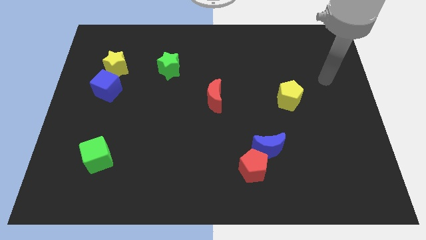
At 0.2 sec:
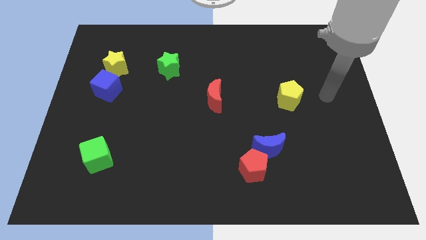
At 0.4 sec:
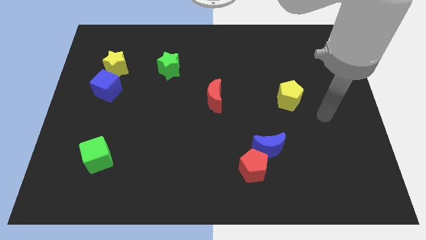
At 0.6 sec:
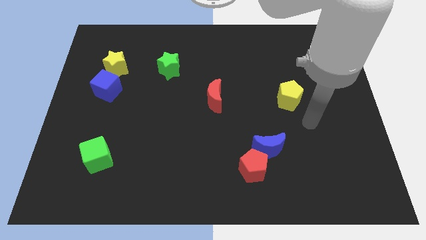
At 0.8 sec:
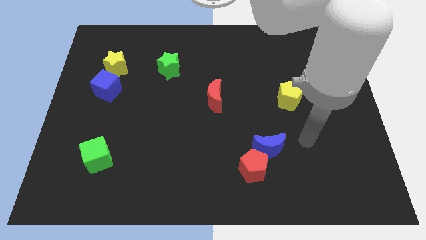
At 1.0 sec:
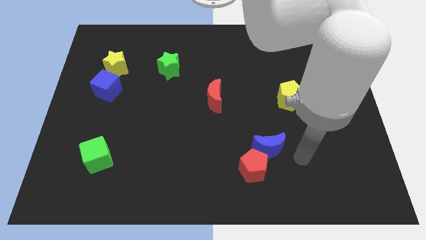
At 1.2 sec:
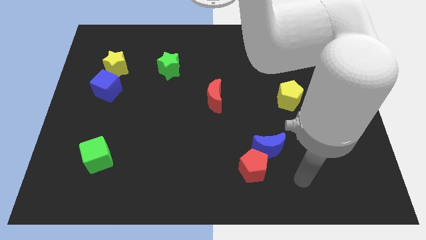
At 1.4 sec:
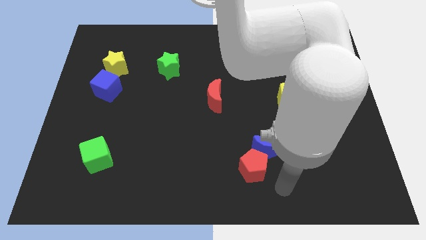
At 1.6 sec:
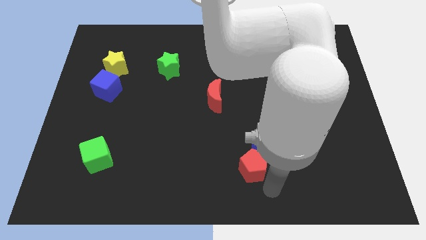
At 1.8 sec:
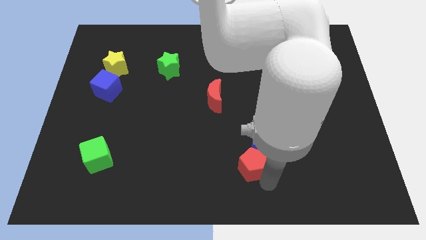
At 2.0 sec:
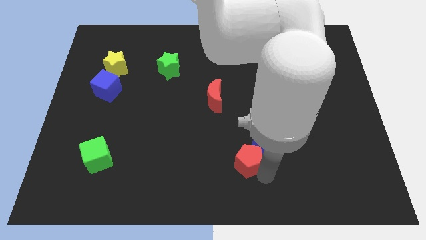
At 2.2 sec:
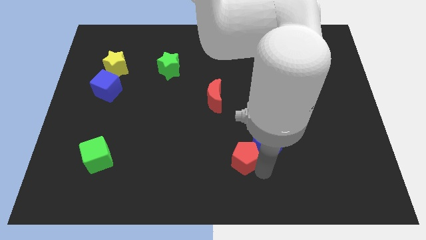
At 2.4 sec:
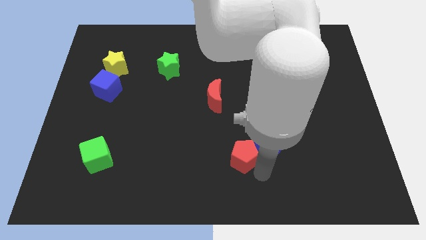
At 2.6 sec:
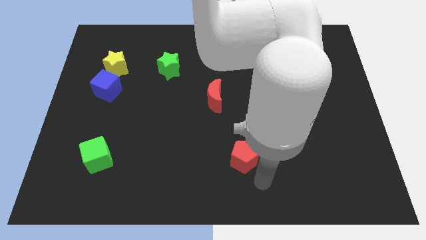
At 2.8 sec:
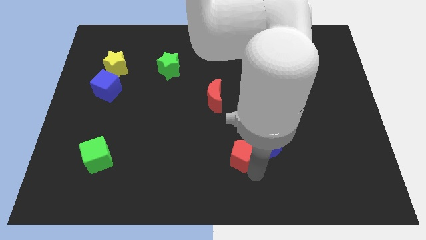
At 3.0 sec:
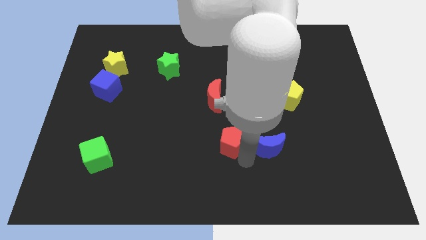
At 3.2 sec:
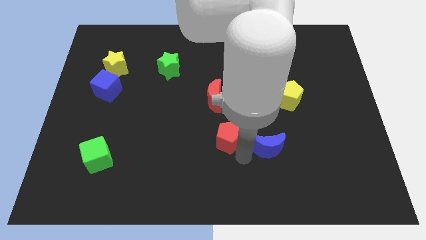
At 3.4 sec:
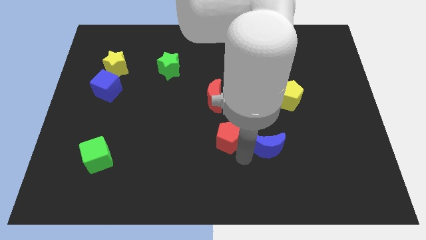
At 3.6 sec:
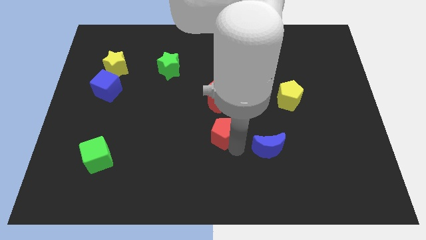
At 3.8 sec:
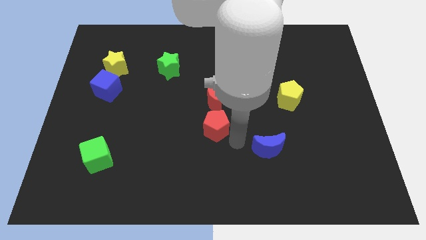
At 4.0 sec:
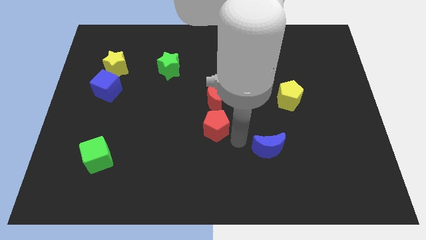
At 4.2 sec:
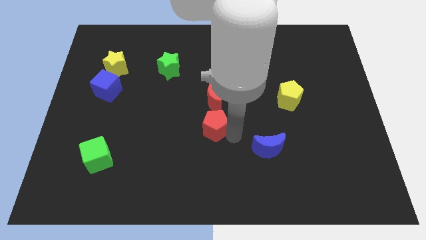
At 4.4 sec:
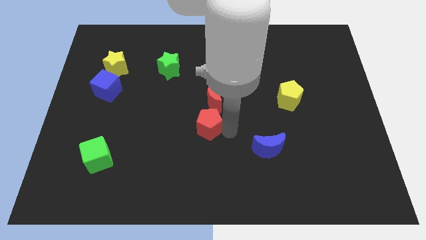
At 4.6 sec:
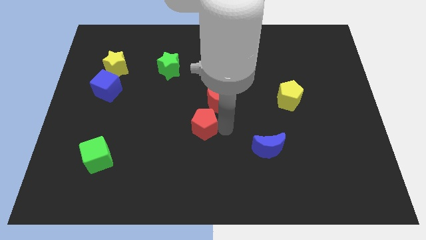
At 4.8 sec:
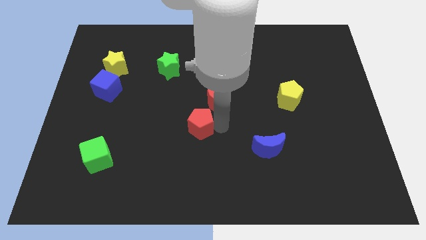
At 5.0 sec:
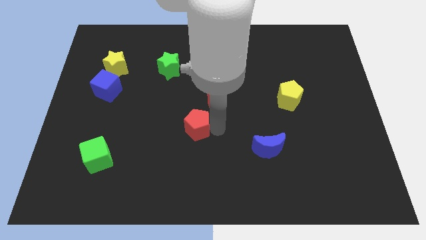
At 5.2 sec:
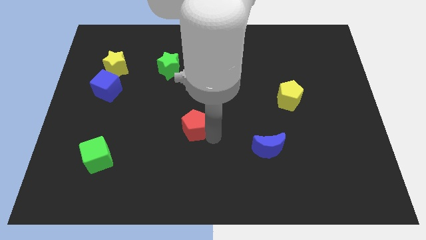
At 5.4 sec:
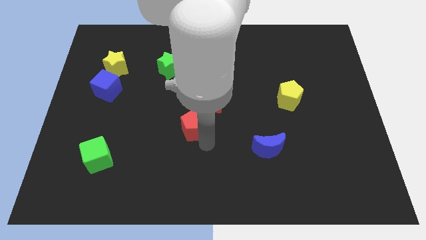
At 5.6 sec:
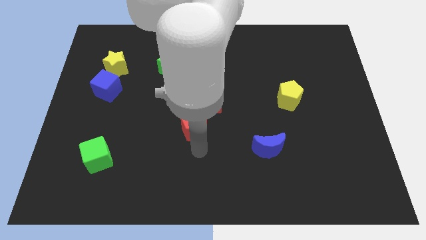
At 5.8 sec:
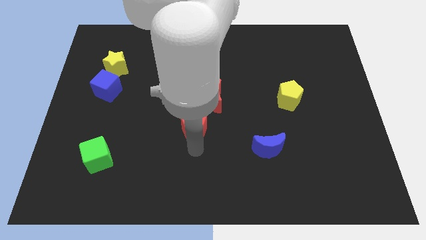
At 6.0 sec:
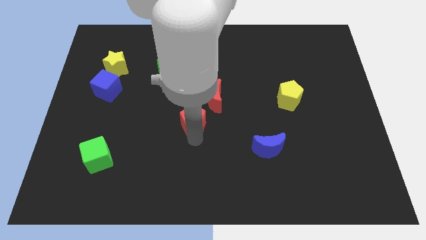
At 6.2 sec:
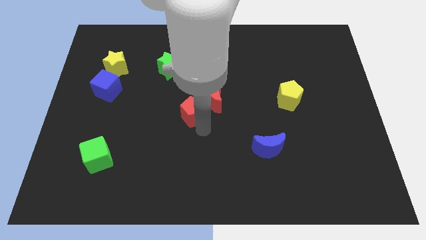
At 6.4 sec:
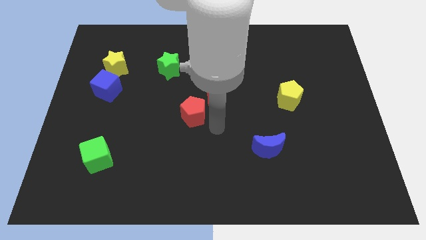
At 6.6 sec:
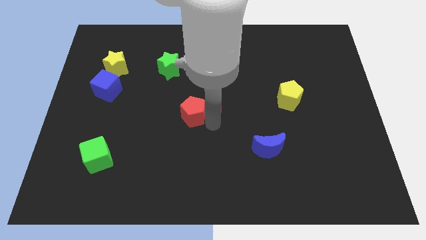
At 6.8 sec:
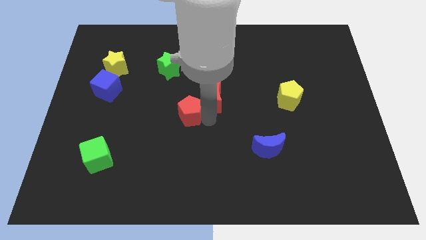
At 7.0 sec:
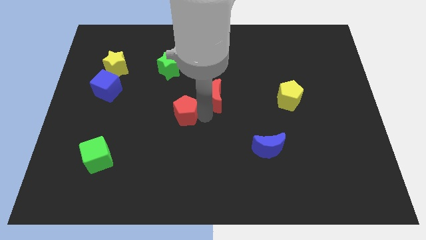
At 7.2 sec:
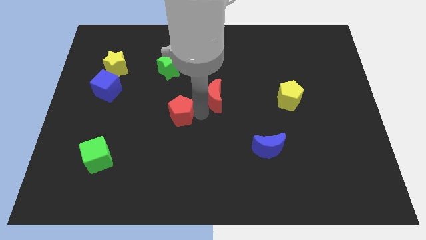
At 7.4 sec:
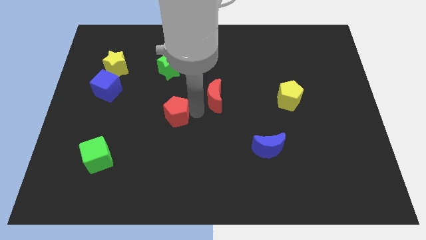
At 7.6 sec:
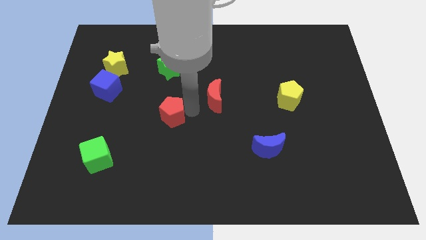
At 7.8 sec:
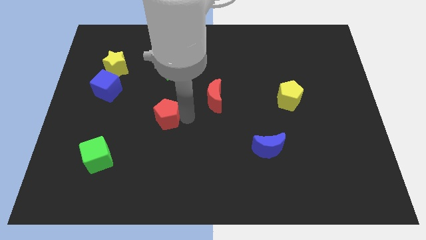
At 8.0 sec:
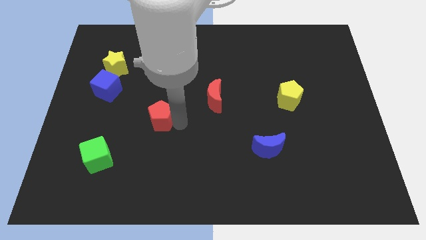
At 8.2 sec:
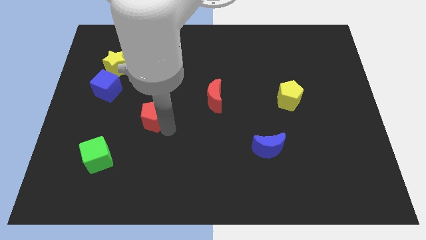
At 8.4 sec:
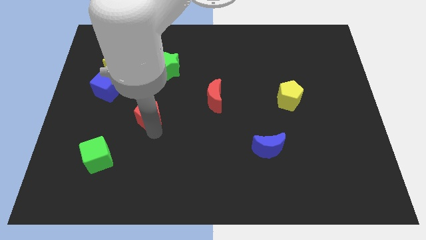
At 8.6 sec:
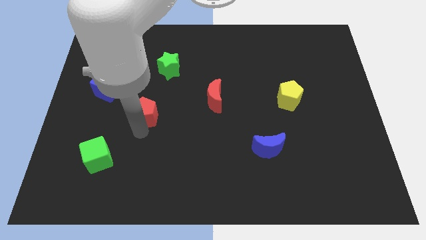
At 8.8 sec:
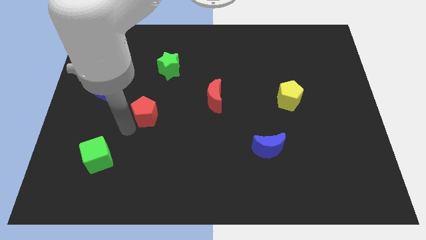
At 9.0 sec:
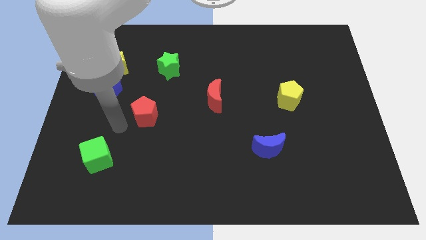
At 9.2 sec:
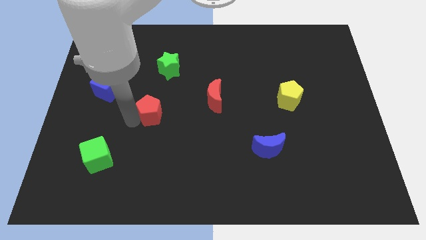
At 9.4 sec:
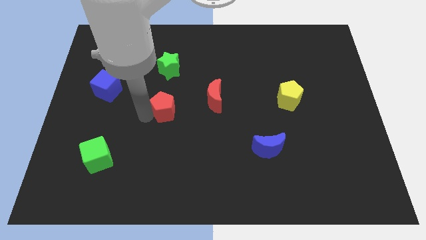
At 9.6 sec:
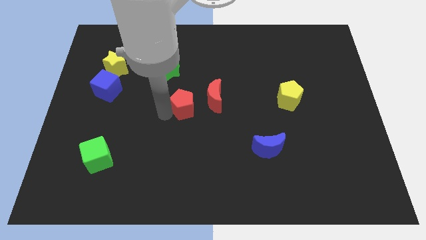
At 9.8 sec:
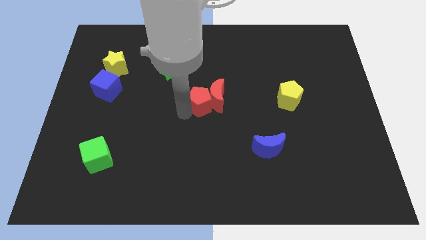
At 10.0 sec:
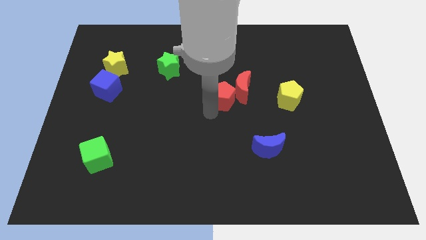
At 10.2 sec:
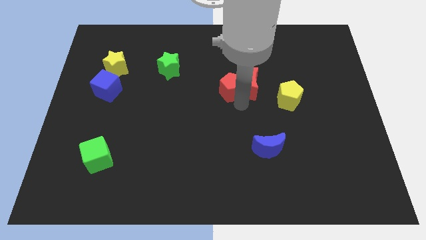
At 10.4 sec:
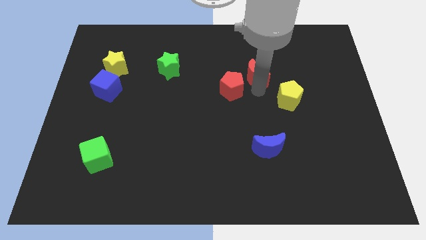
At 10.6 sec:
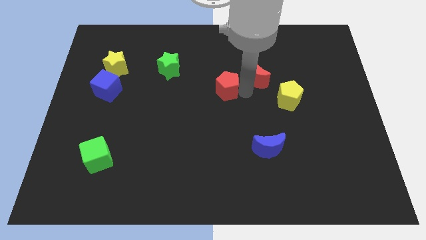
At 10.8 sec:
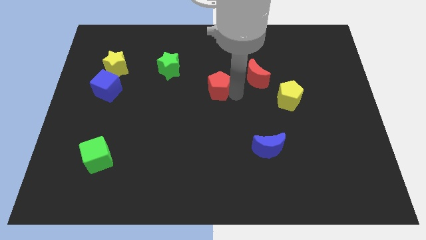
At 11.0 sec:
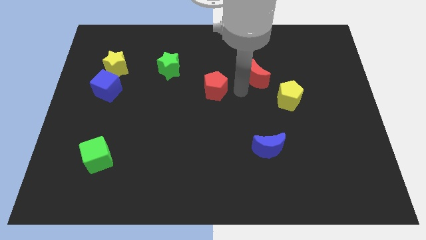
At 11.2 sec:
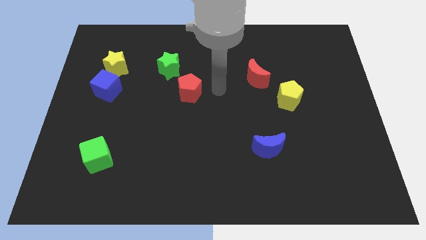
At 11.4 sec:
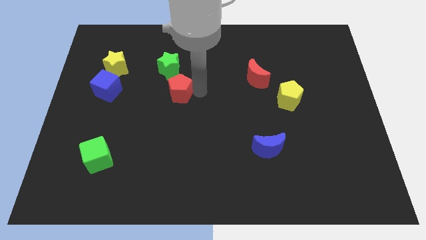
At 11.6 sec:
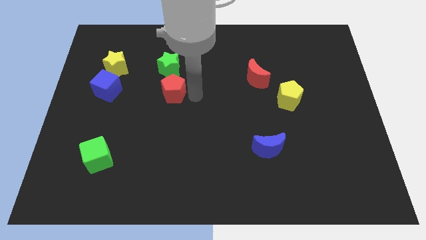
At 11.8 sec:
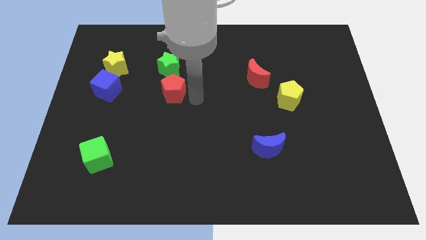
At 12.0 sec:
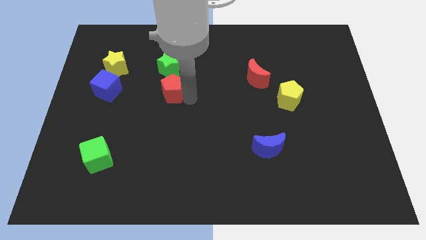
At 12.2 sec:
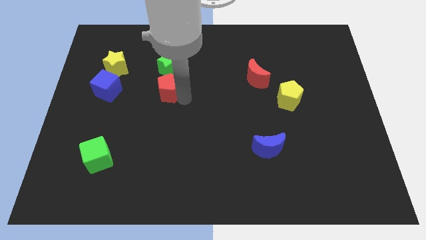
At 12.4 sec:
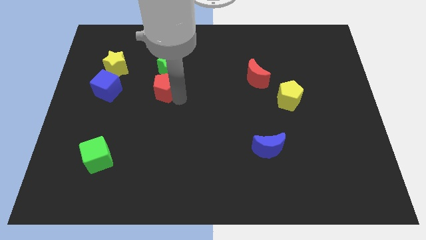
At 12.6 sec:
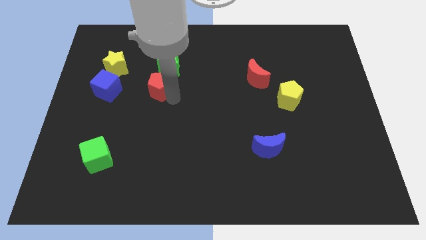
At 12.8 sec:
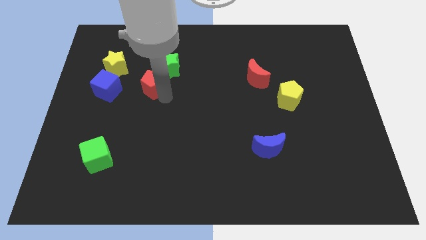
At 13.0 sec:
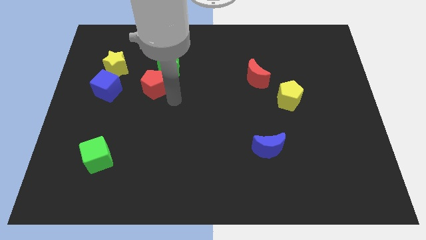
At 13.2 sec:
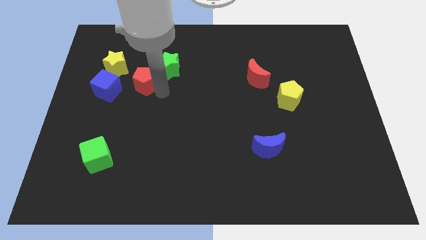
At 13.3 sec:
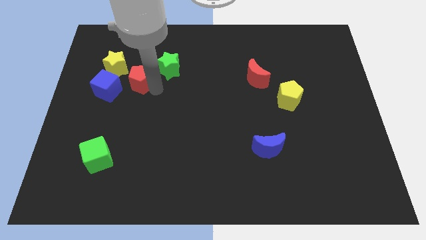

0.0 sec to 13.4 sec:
put the red pentagon to the top right of the blue cube
